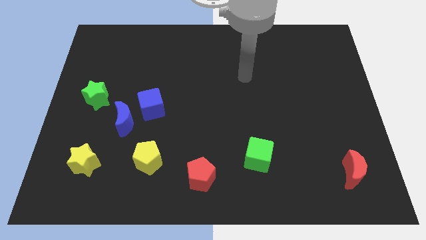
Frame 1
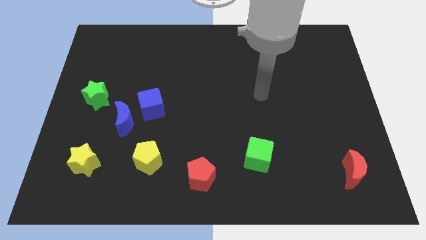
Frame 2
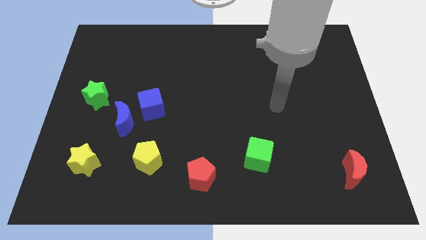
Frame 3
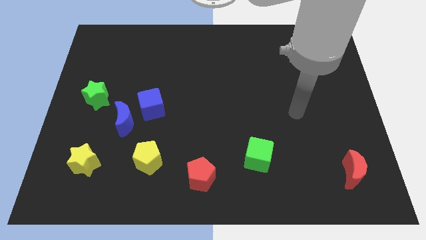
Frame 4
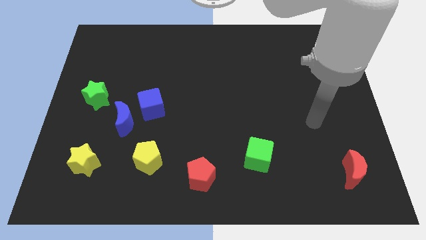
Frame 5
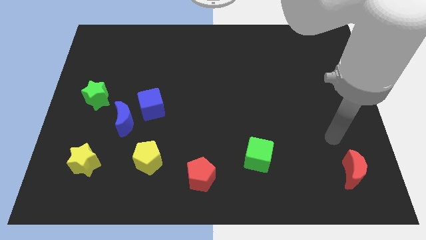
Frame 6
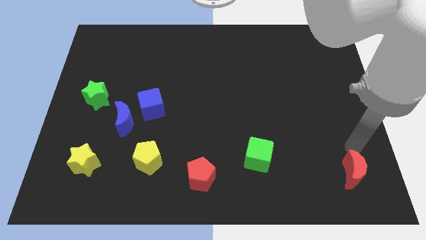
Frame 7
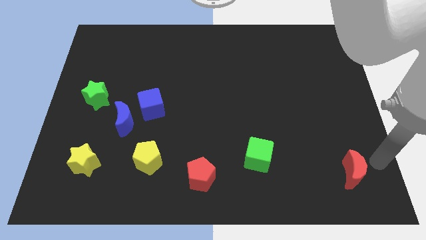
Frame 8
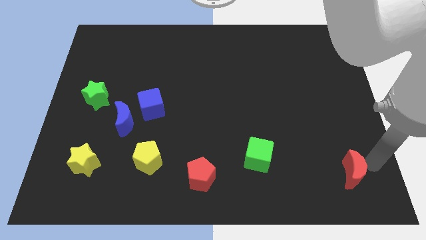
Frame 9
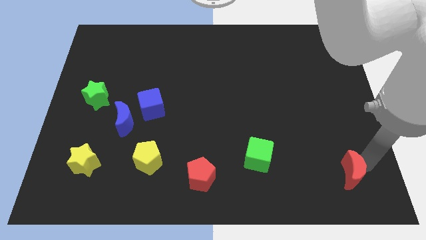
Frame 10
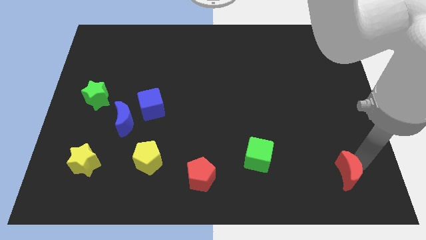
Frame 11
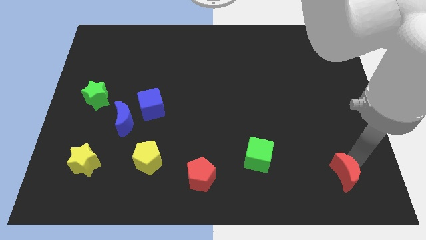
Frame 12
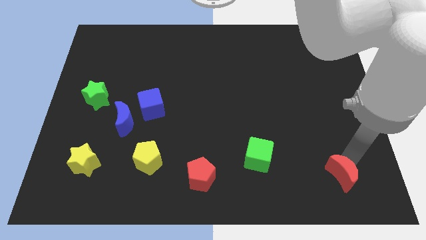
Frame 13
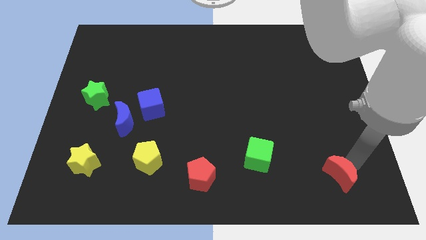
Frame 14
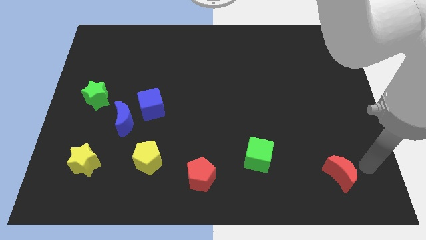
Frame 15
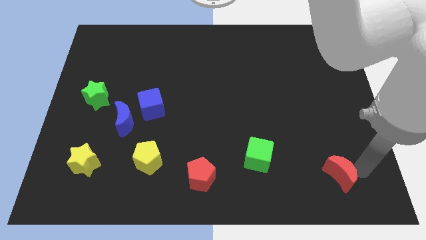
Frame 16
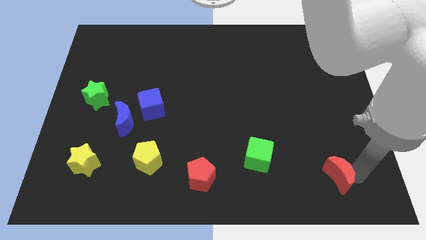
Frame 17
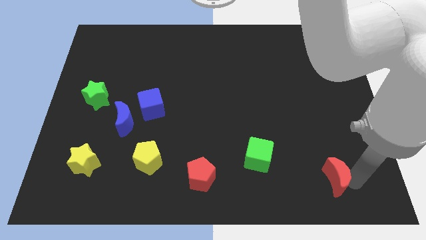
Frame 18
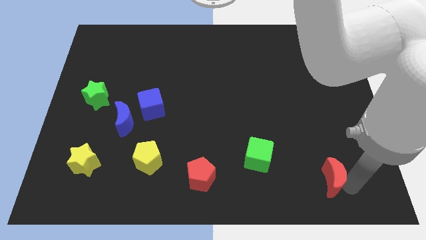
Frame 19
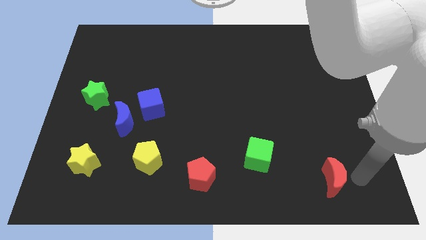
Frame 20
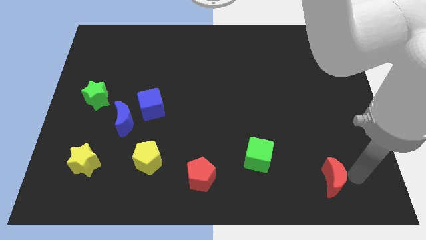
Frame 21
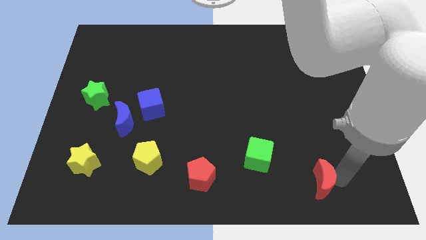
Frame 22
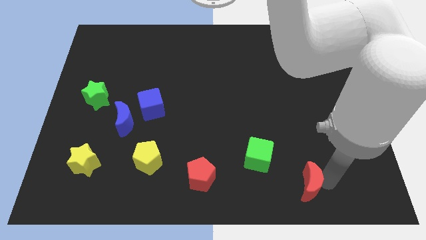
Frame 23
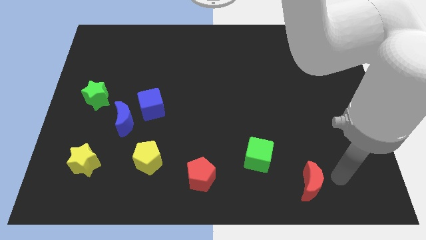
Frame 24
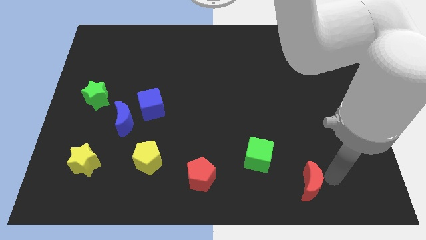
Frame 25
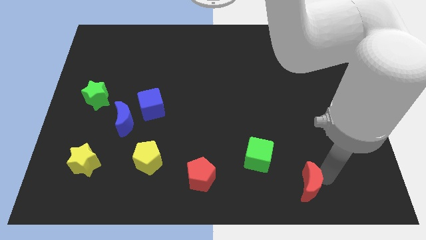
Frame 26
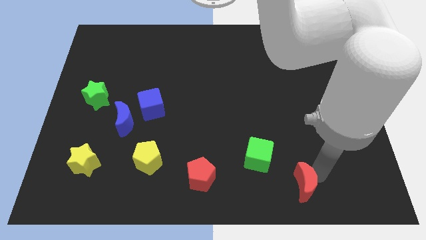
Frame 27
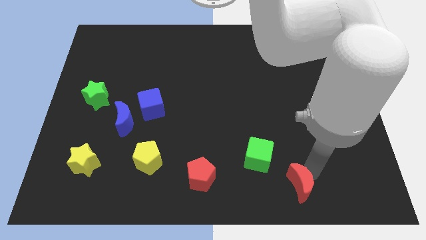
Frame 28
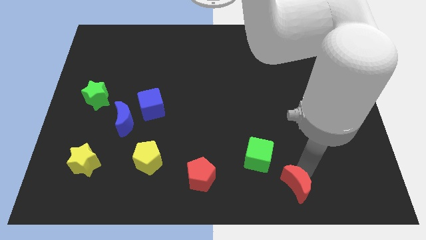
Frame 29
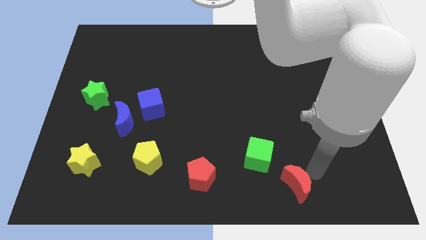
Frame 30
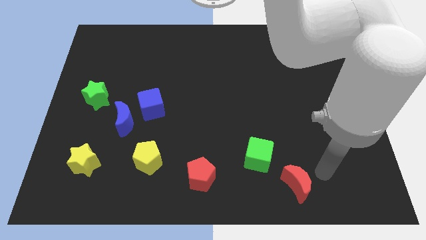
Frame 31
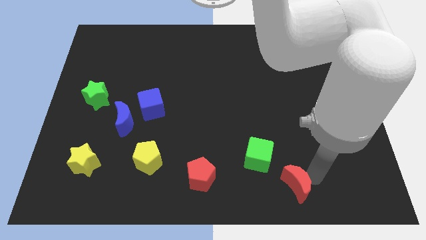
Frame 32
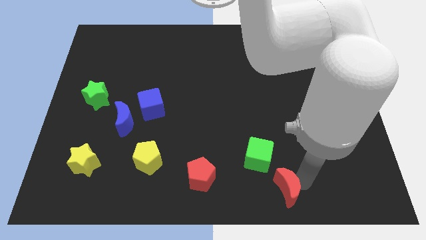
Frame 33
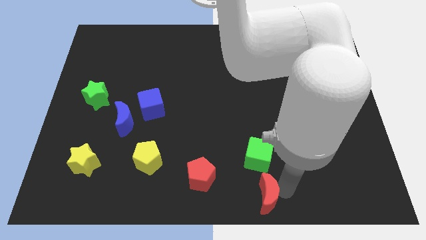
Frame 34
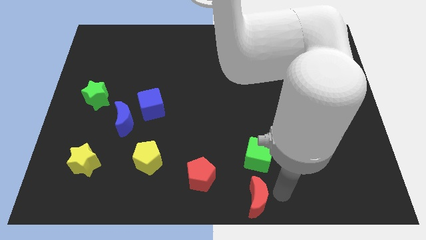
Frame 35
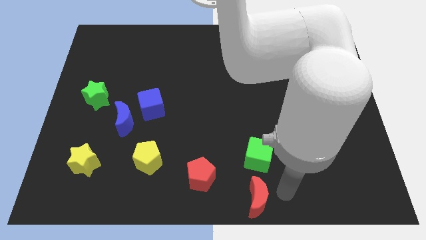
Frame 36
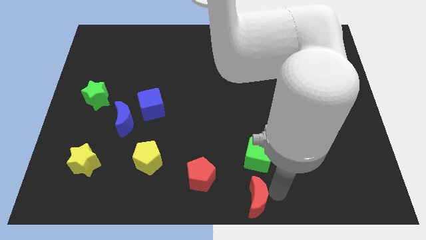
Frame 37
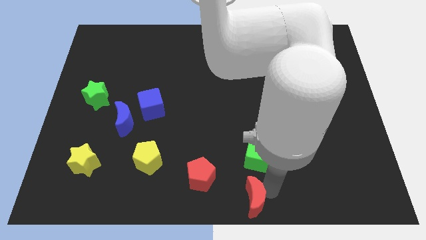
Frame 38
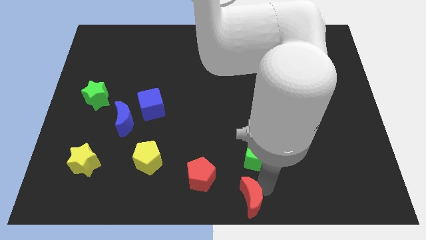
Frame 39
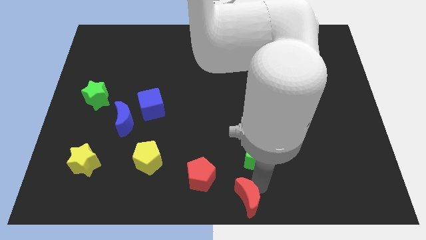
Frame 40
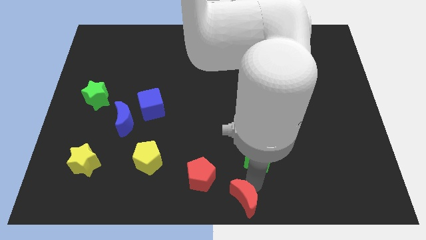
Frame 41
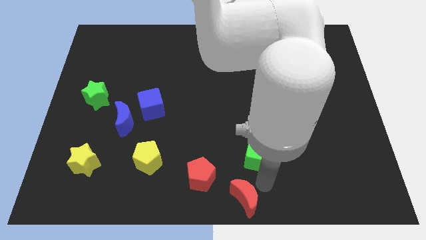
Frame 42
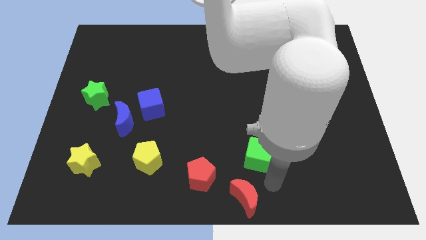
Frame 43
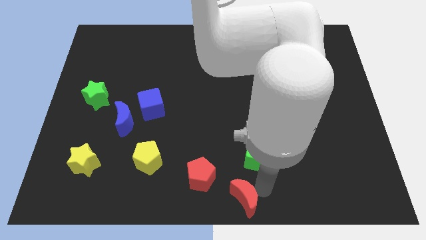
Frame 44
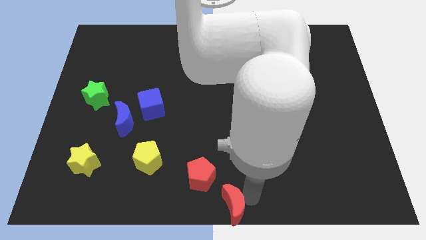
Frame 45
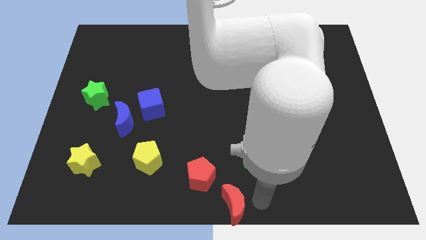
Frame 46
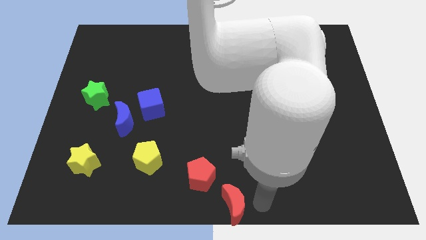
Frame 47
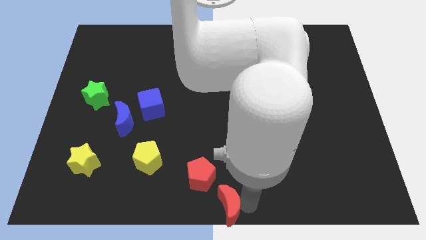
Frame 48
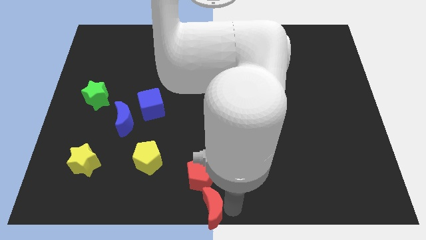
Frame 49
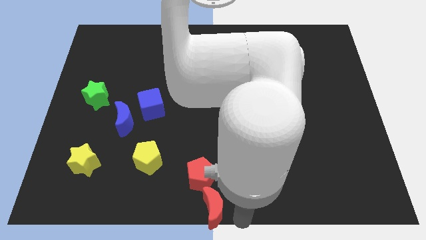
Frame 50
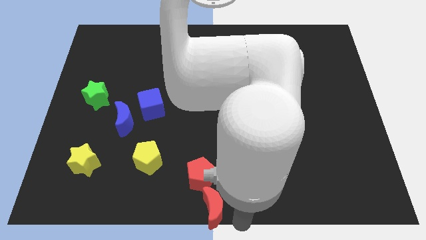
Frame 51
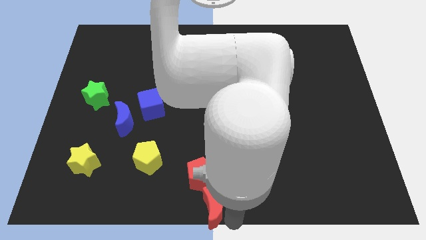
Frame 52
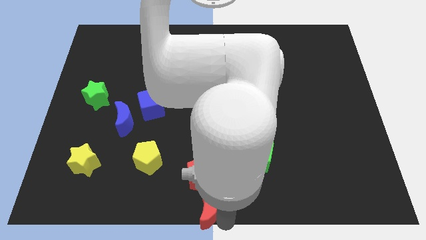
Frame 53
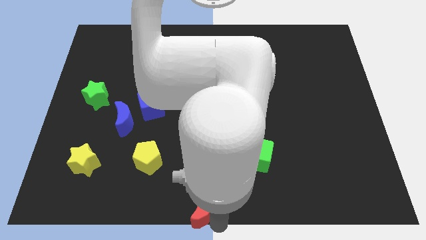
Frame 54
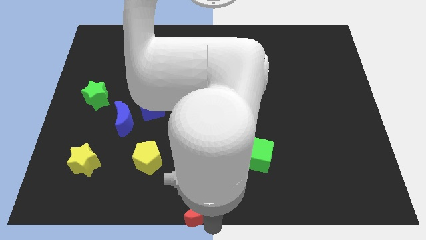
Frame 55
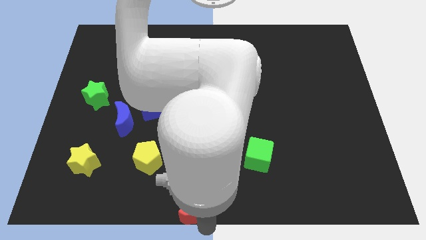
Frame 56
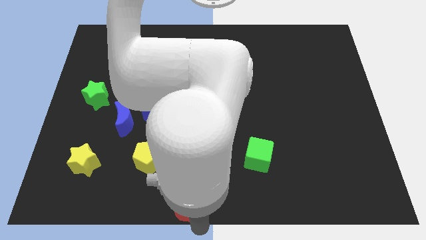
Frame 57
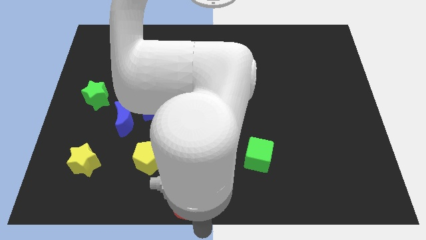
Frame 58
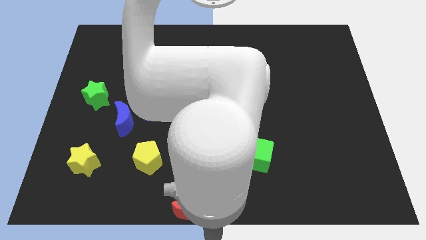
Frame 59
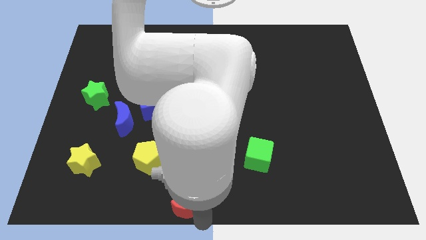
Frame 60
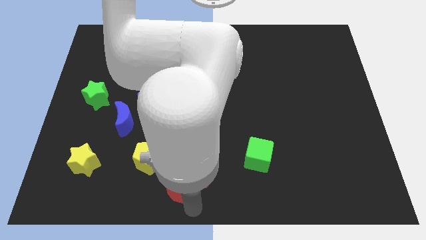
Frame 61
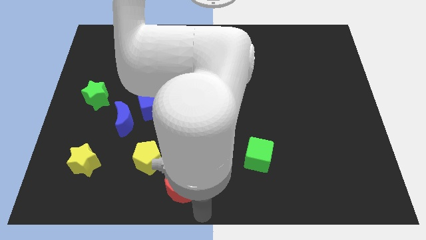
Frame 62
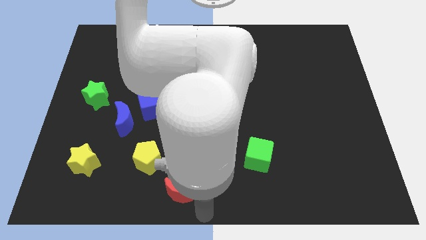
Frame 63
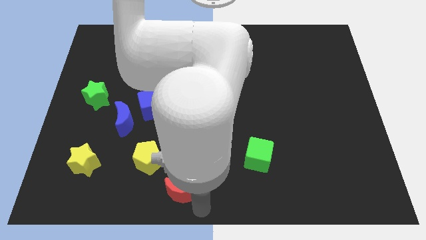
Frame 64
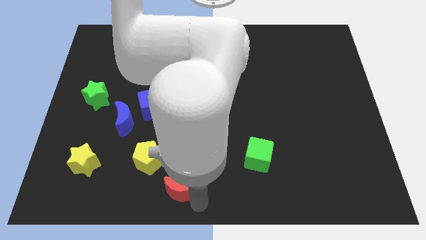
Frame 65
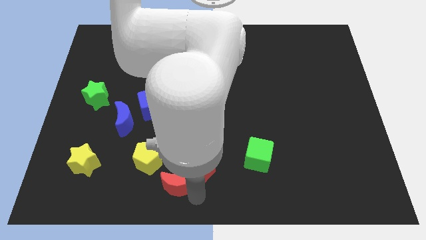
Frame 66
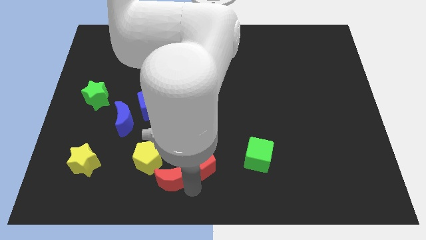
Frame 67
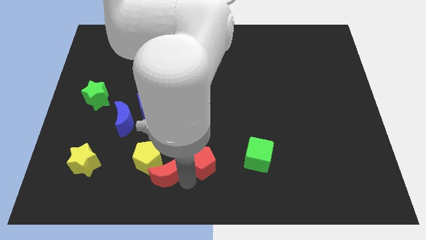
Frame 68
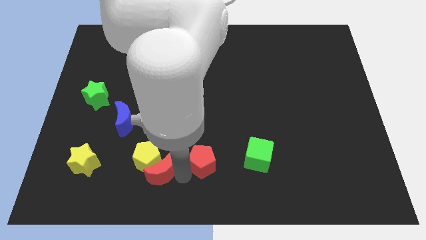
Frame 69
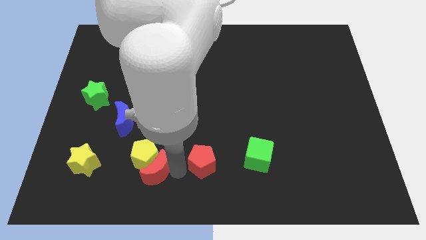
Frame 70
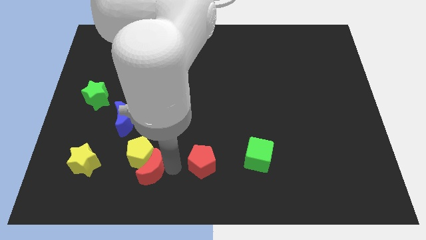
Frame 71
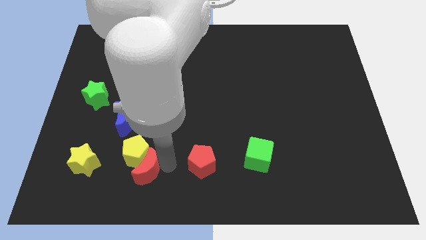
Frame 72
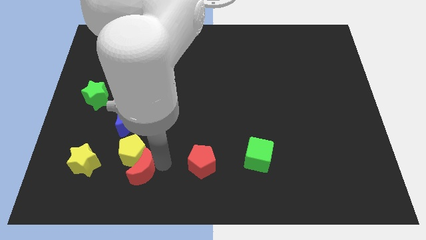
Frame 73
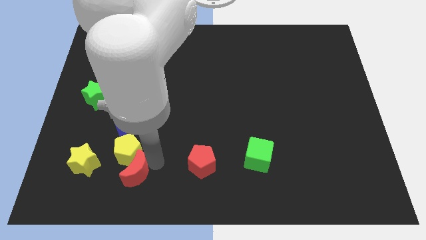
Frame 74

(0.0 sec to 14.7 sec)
move the red moon below the blue moon
